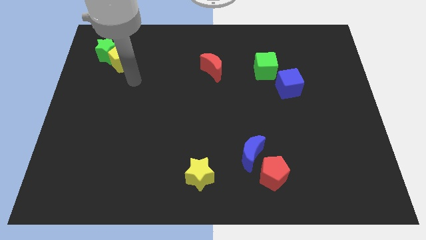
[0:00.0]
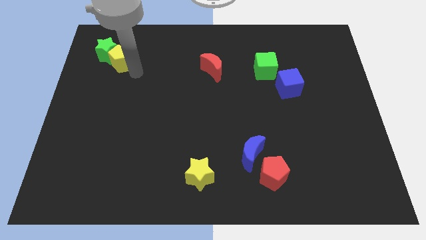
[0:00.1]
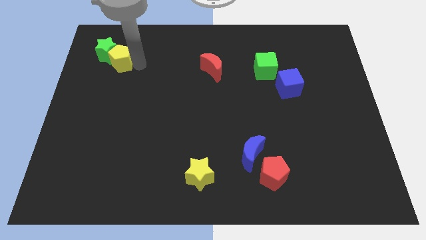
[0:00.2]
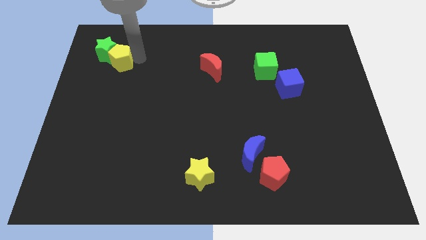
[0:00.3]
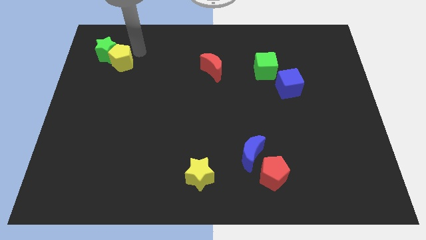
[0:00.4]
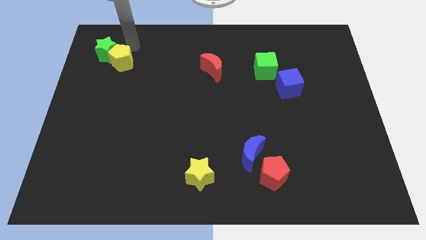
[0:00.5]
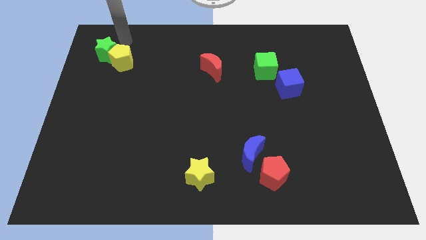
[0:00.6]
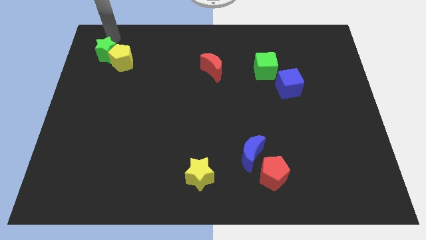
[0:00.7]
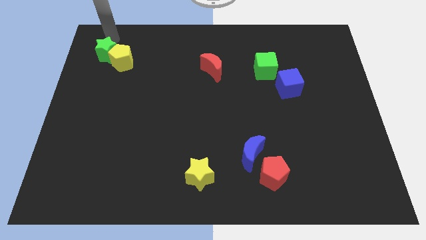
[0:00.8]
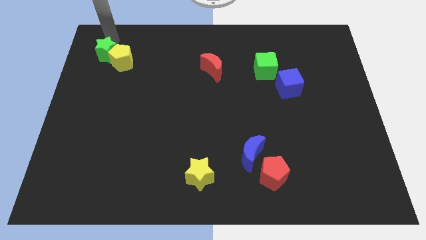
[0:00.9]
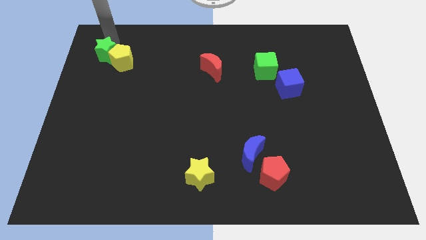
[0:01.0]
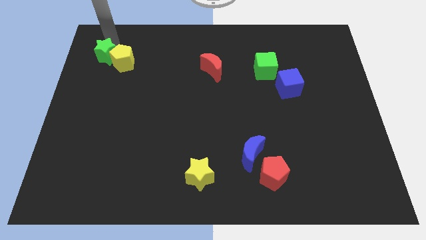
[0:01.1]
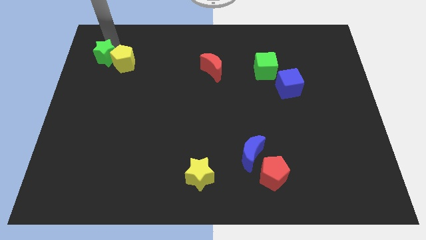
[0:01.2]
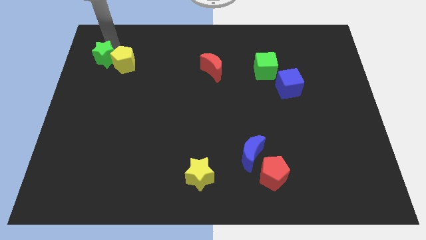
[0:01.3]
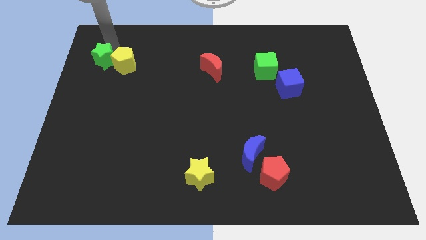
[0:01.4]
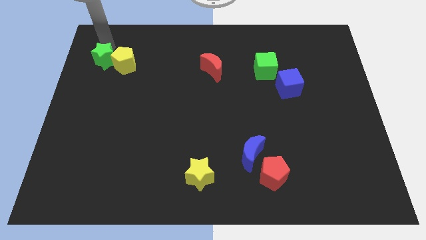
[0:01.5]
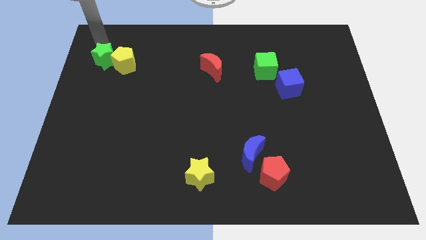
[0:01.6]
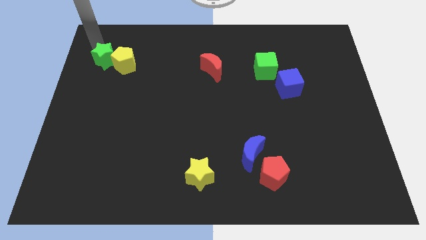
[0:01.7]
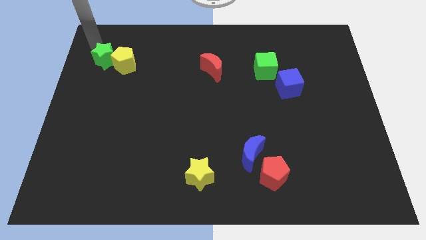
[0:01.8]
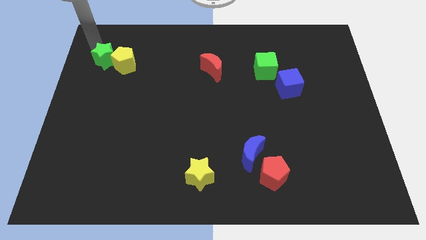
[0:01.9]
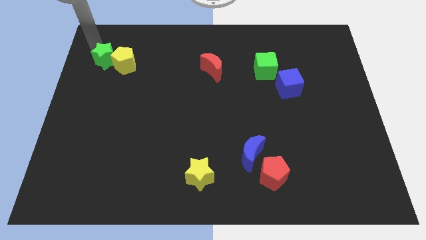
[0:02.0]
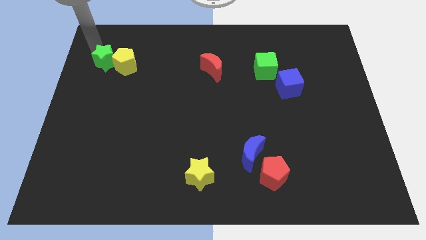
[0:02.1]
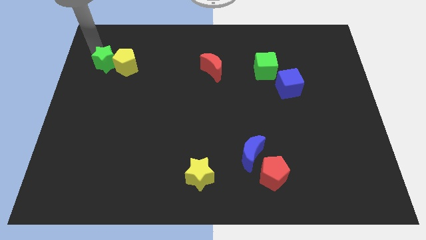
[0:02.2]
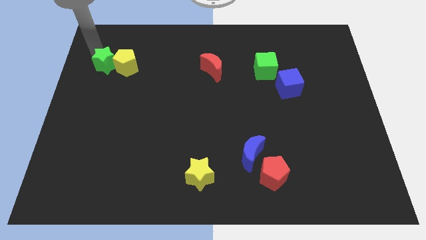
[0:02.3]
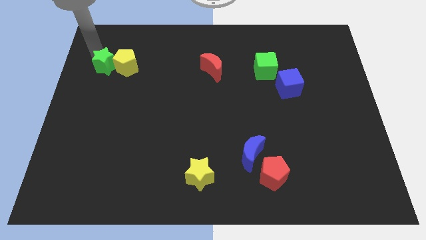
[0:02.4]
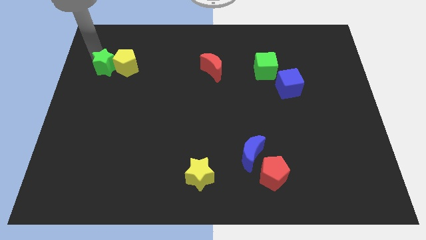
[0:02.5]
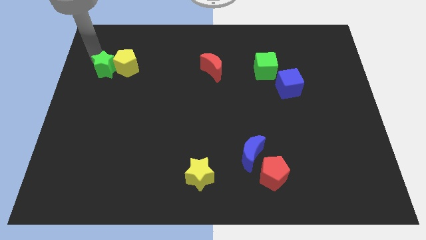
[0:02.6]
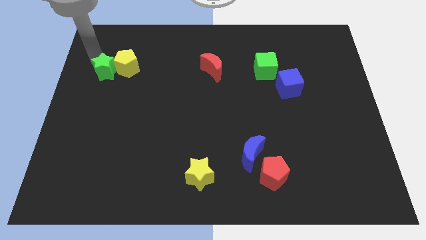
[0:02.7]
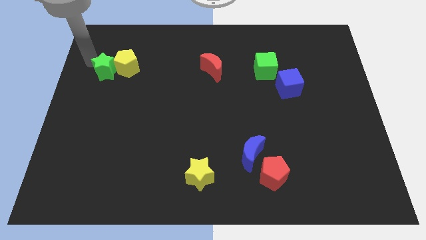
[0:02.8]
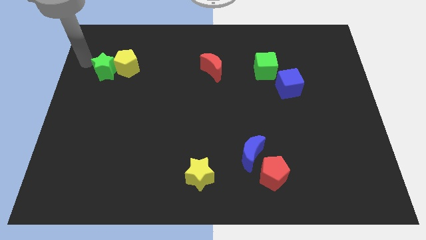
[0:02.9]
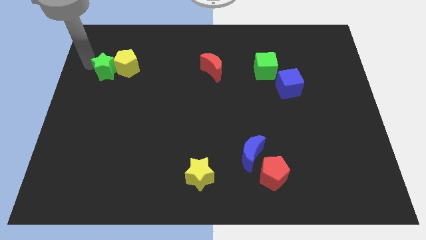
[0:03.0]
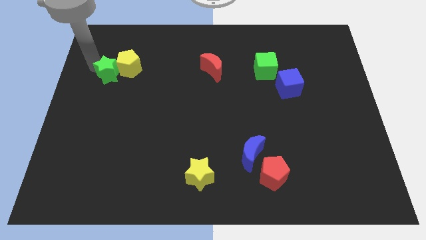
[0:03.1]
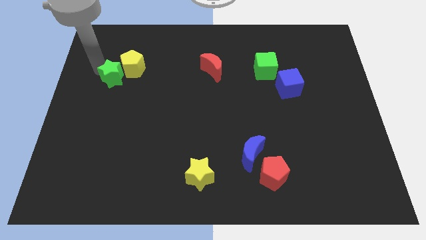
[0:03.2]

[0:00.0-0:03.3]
slide the green star somewhat down and then right

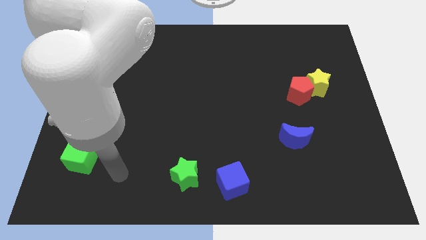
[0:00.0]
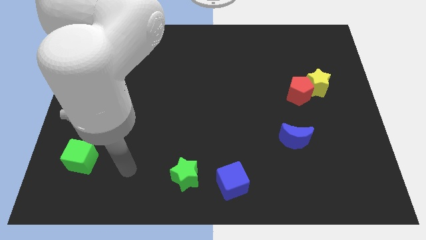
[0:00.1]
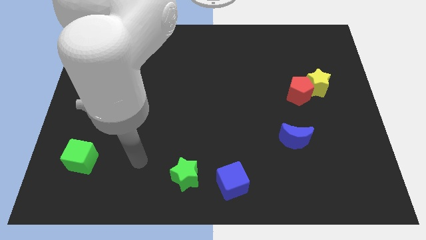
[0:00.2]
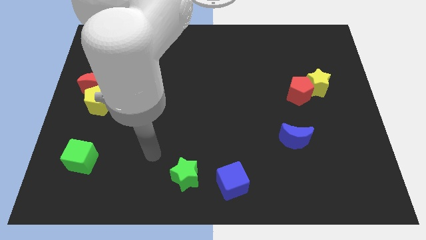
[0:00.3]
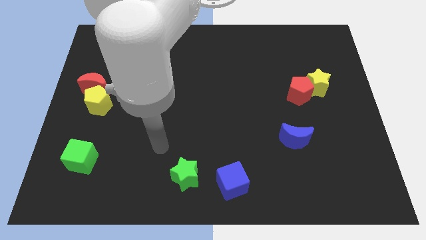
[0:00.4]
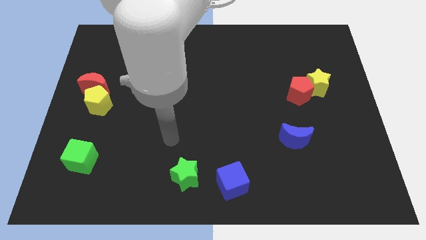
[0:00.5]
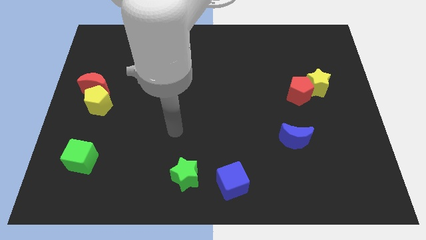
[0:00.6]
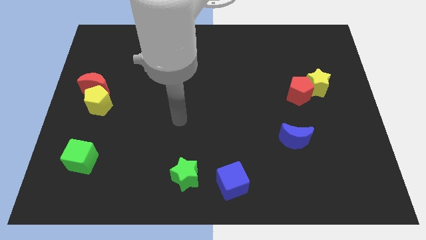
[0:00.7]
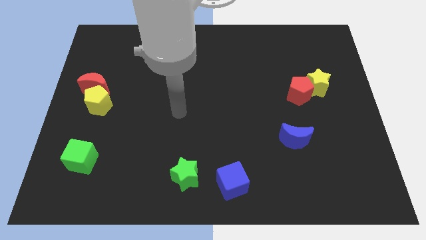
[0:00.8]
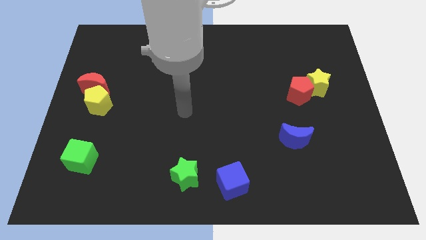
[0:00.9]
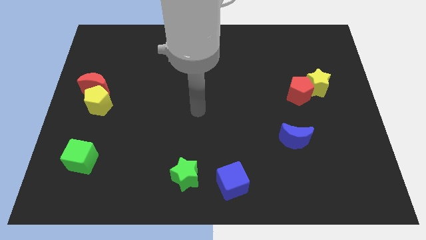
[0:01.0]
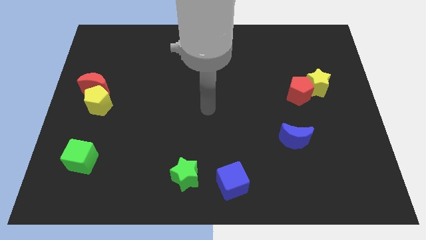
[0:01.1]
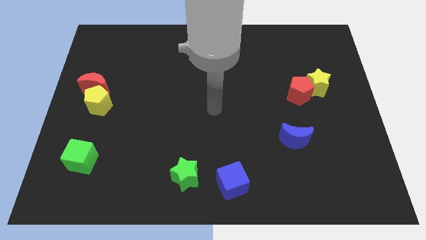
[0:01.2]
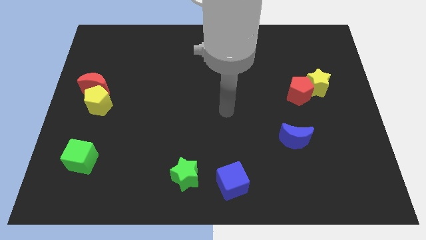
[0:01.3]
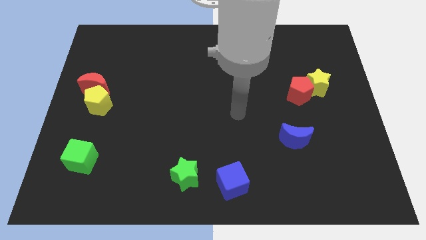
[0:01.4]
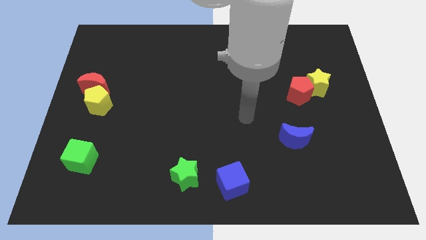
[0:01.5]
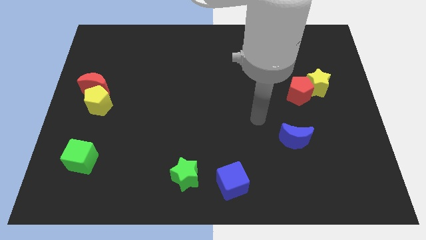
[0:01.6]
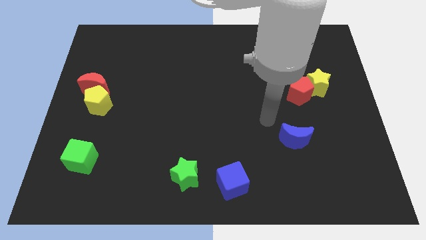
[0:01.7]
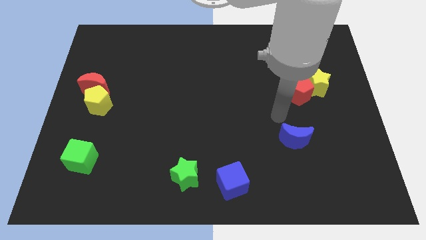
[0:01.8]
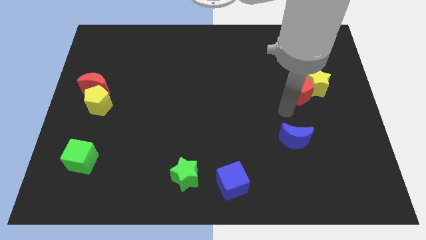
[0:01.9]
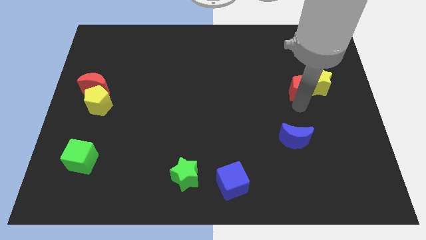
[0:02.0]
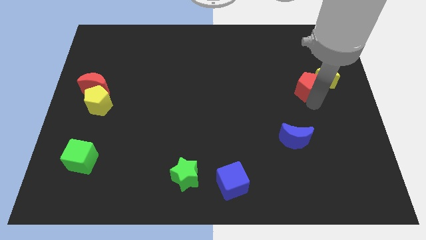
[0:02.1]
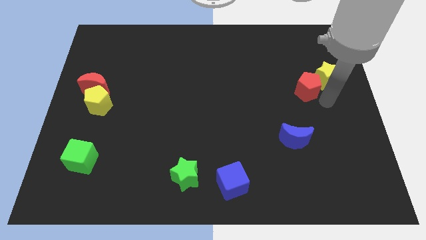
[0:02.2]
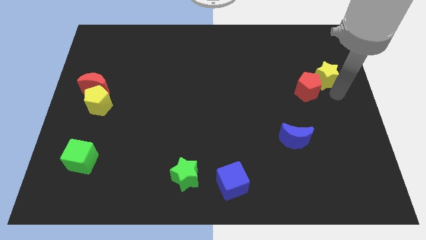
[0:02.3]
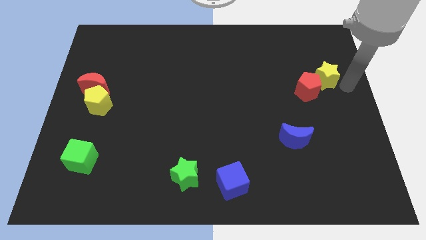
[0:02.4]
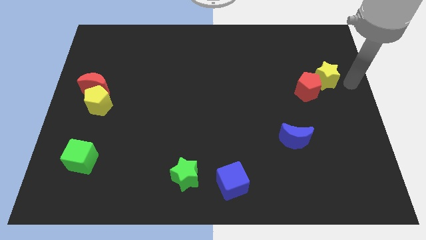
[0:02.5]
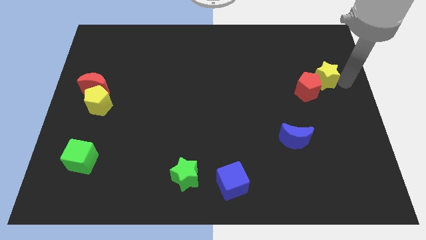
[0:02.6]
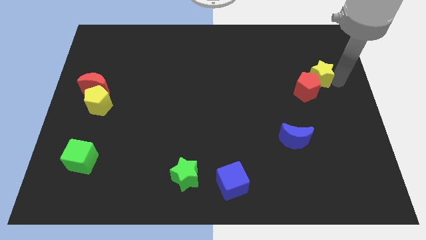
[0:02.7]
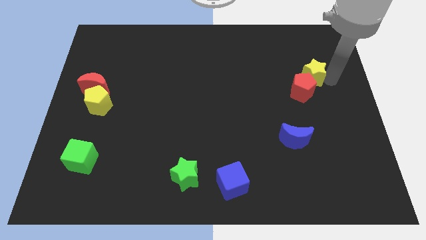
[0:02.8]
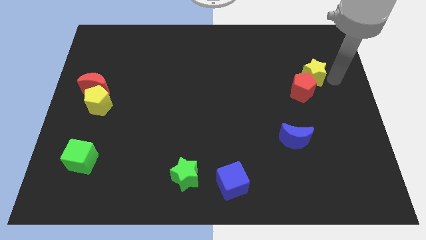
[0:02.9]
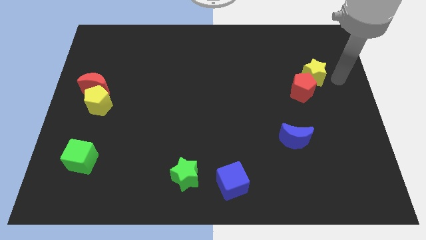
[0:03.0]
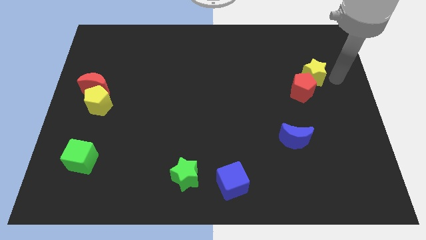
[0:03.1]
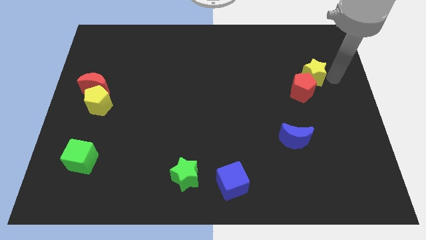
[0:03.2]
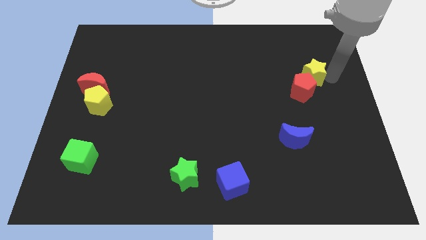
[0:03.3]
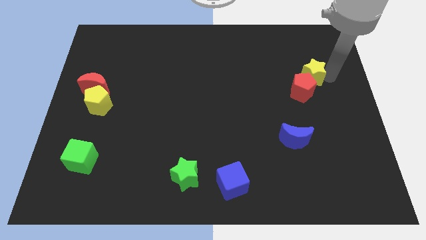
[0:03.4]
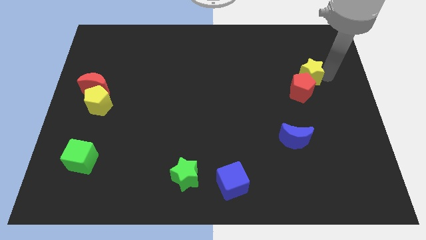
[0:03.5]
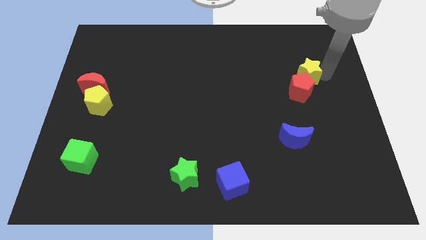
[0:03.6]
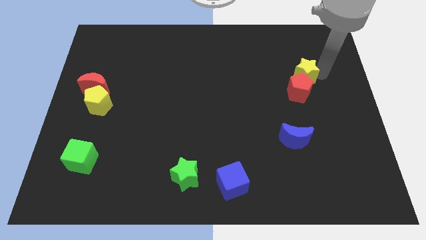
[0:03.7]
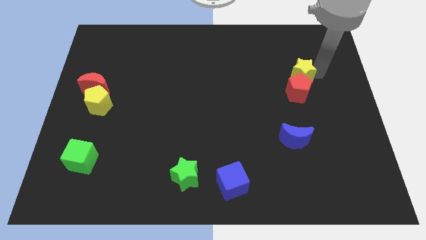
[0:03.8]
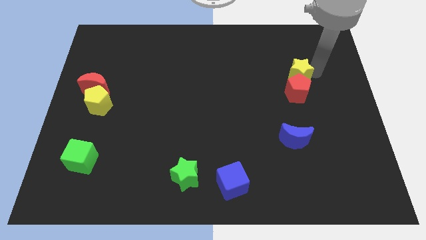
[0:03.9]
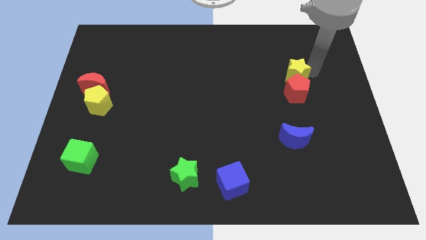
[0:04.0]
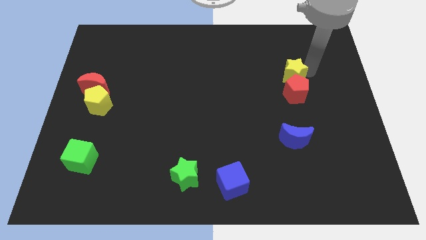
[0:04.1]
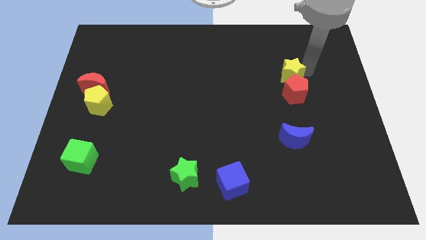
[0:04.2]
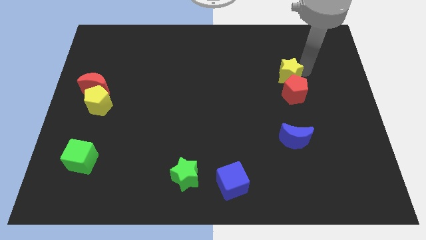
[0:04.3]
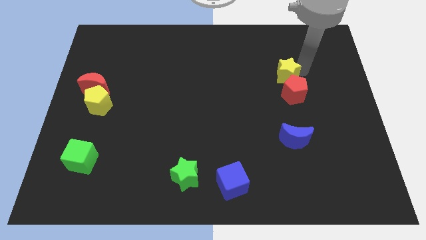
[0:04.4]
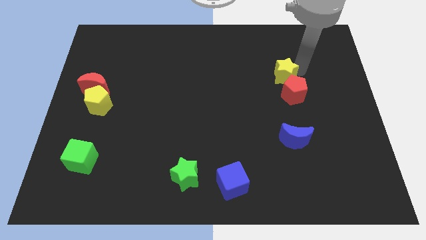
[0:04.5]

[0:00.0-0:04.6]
move the yellow star to the left a little bit
